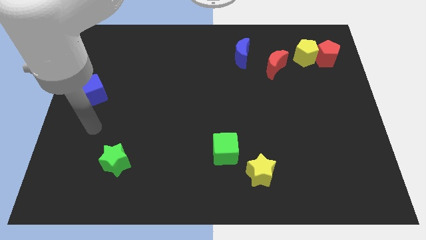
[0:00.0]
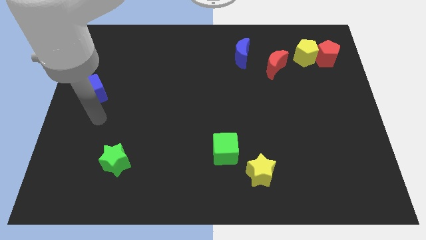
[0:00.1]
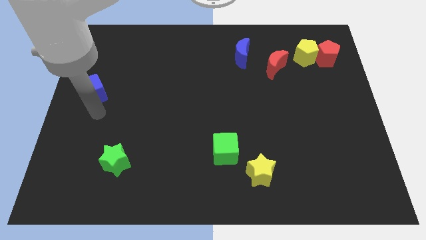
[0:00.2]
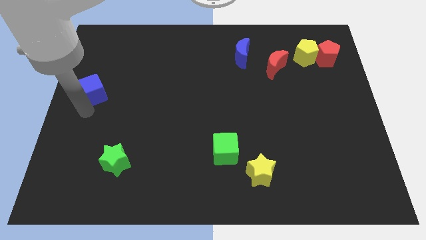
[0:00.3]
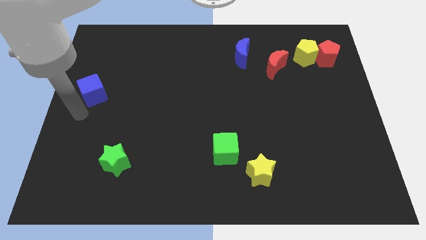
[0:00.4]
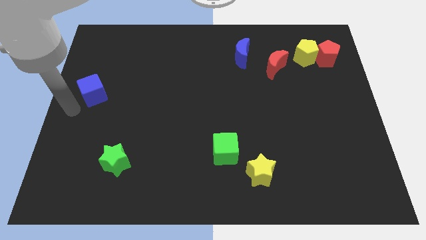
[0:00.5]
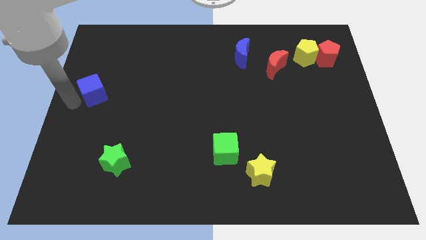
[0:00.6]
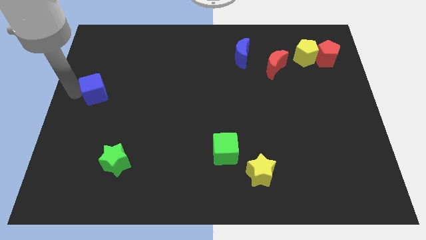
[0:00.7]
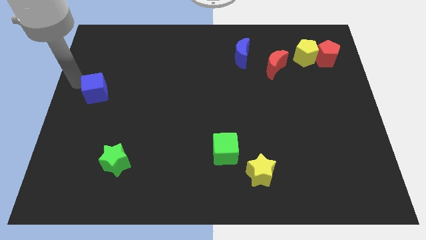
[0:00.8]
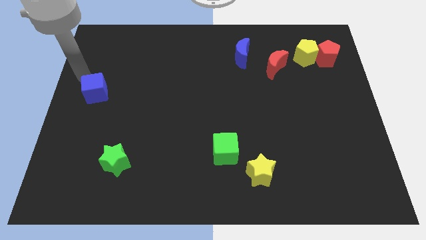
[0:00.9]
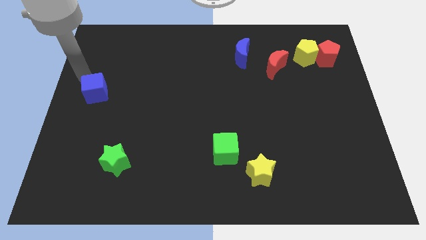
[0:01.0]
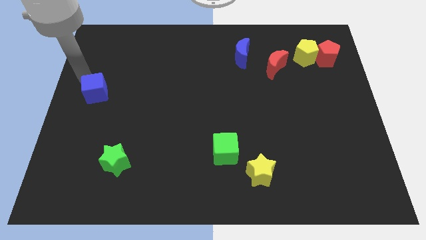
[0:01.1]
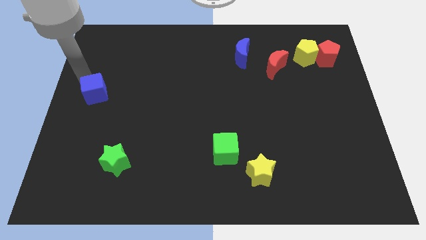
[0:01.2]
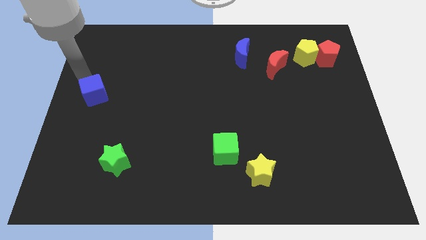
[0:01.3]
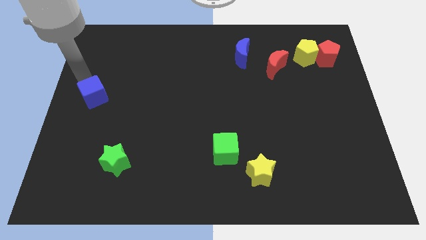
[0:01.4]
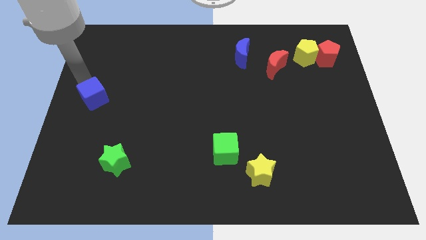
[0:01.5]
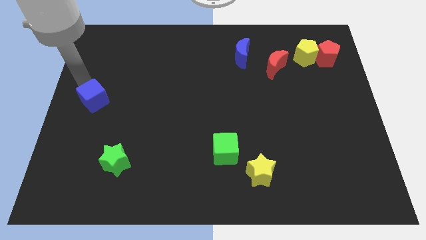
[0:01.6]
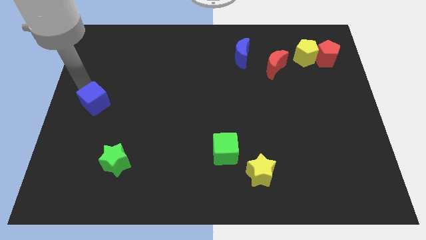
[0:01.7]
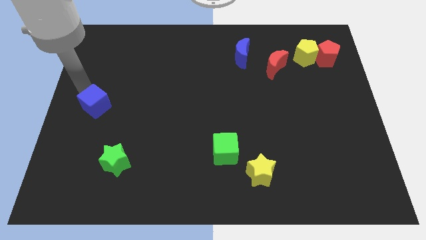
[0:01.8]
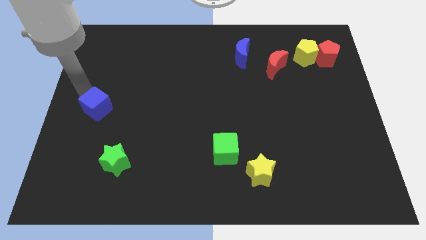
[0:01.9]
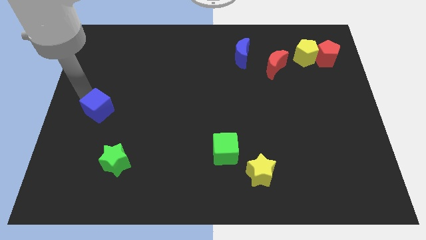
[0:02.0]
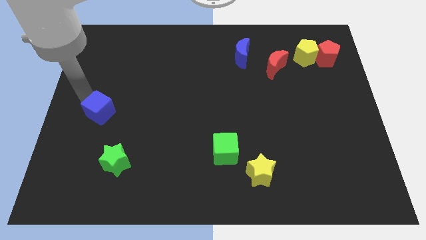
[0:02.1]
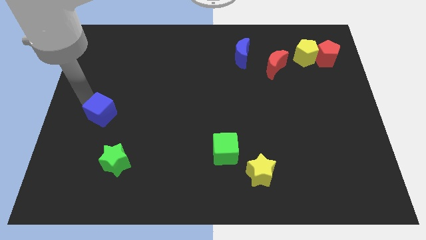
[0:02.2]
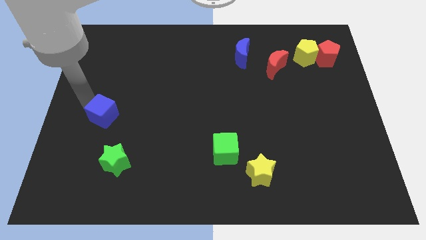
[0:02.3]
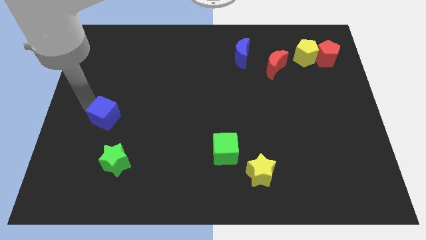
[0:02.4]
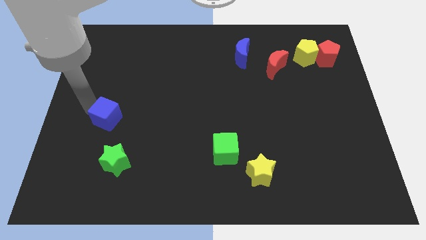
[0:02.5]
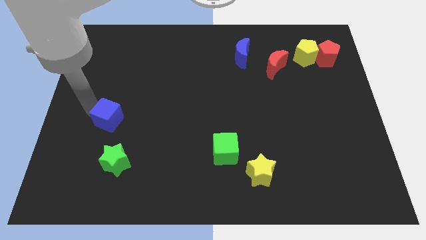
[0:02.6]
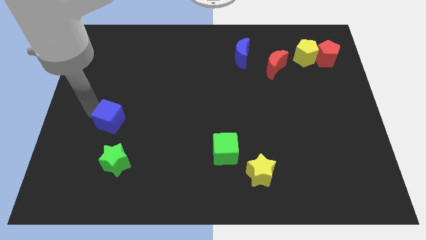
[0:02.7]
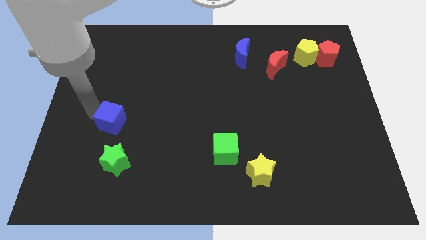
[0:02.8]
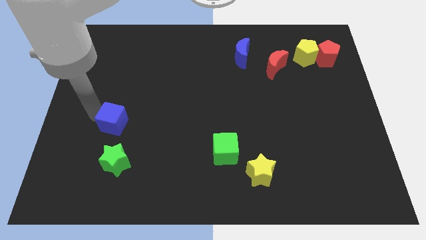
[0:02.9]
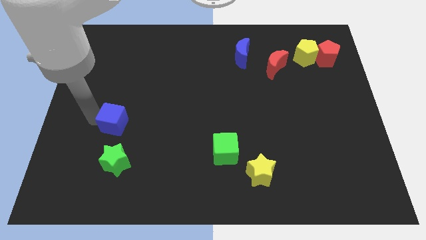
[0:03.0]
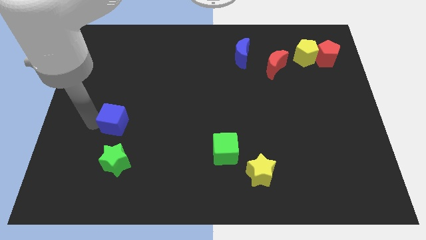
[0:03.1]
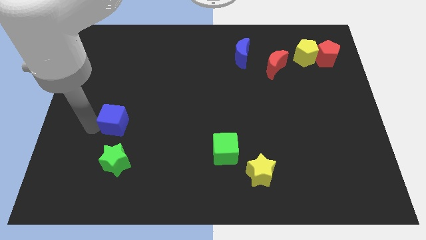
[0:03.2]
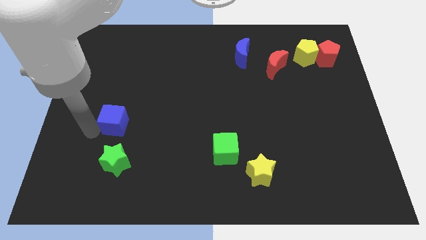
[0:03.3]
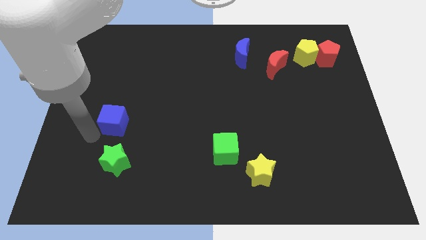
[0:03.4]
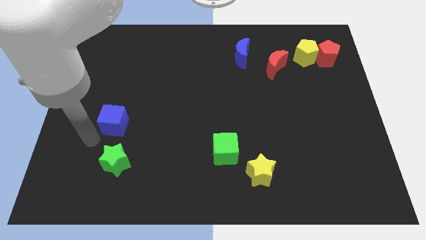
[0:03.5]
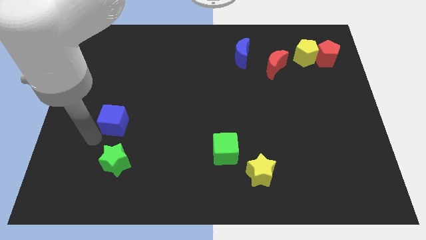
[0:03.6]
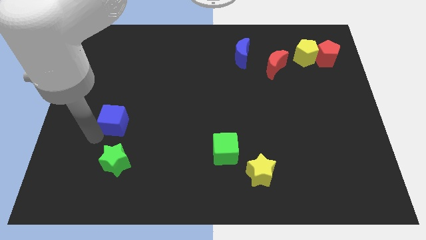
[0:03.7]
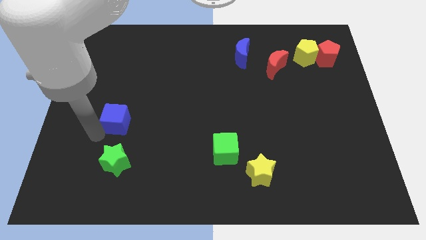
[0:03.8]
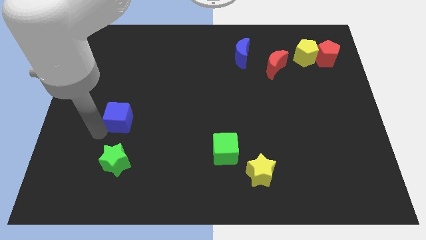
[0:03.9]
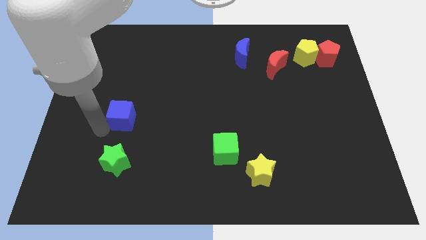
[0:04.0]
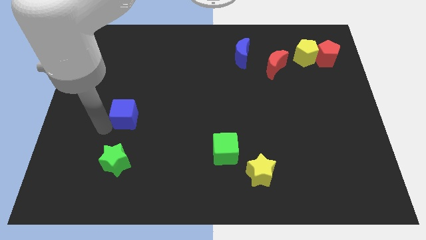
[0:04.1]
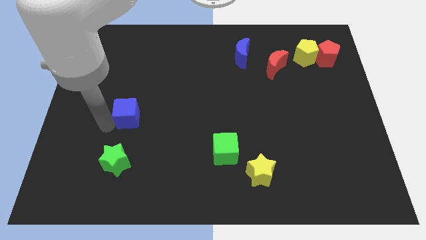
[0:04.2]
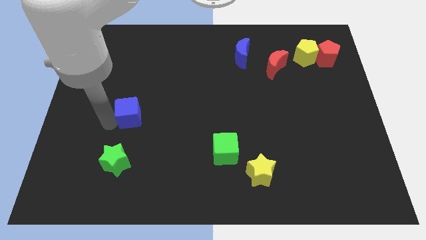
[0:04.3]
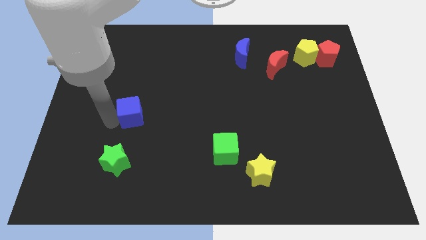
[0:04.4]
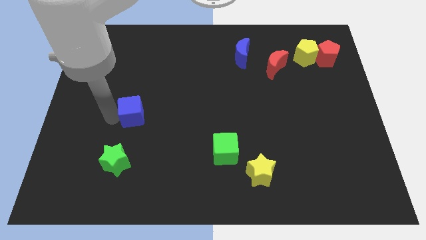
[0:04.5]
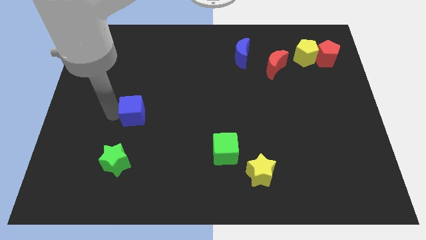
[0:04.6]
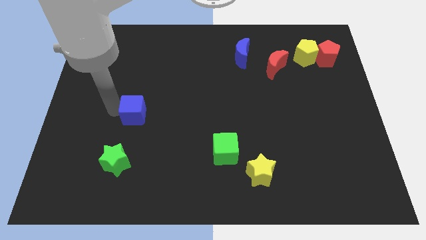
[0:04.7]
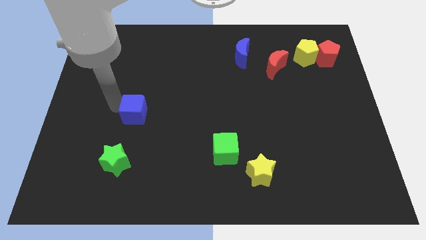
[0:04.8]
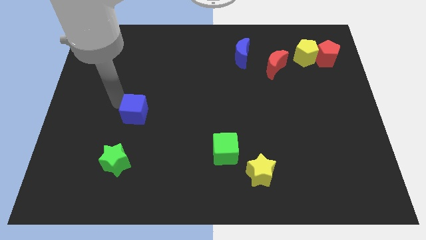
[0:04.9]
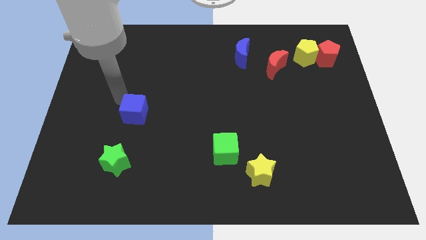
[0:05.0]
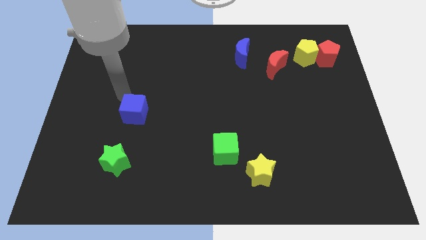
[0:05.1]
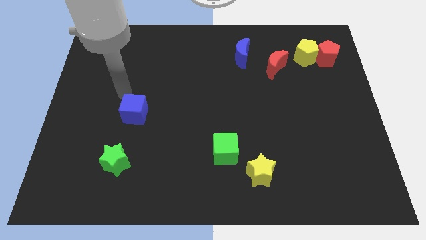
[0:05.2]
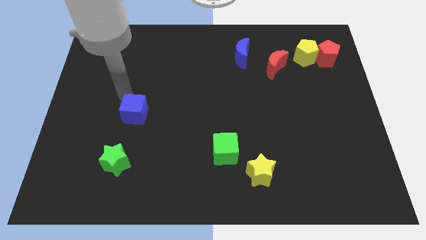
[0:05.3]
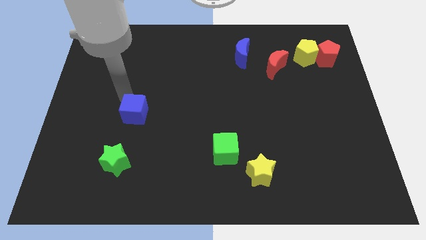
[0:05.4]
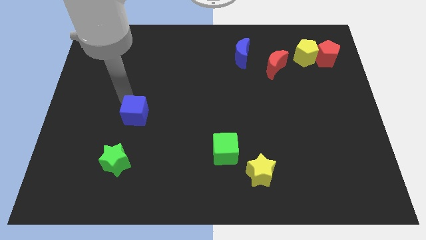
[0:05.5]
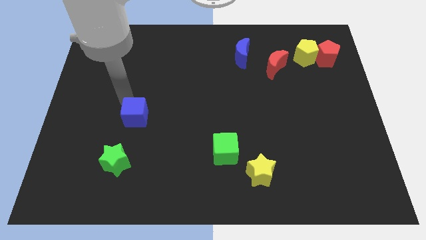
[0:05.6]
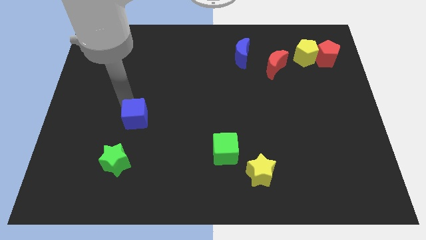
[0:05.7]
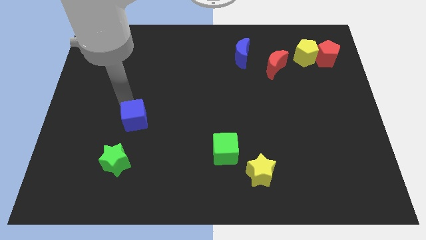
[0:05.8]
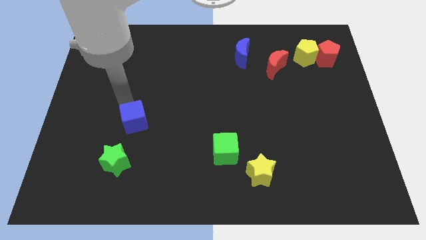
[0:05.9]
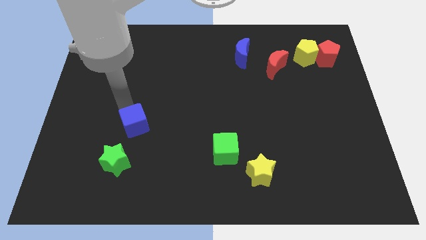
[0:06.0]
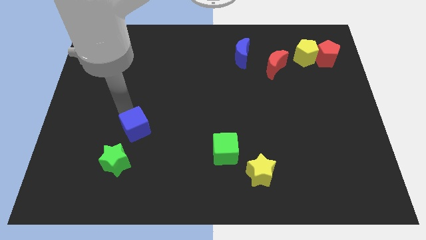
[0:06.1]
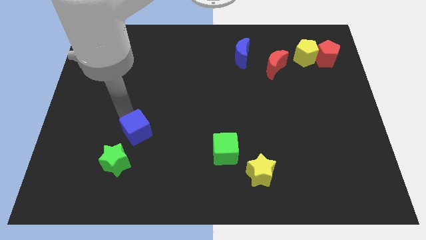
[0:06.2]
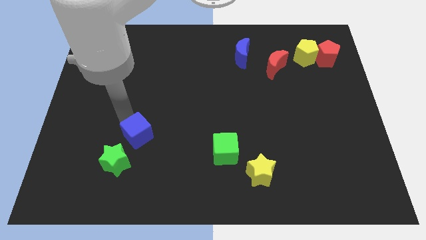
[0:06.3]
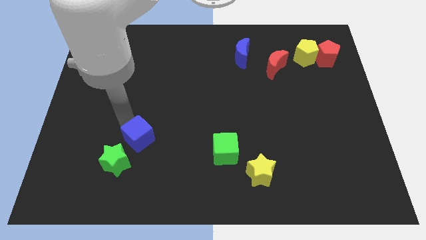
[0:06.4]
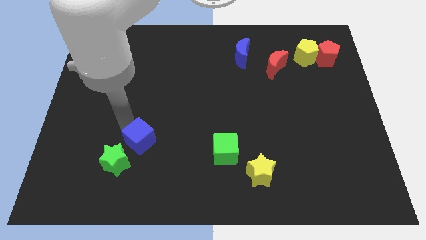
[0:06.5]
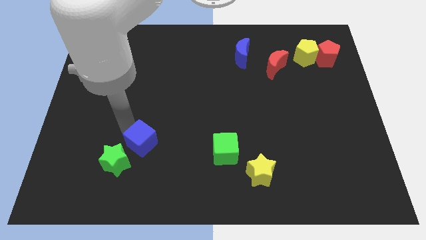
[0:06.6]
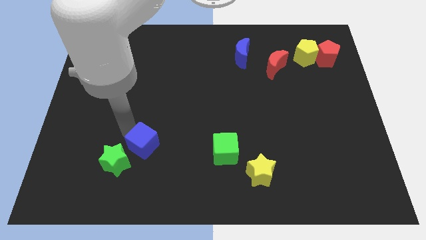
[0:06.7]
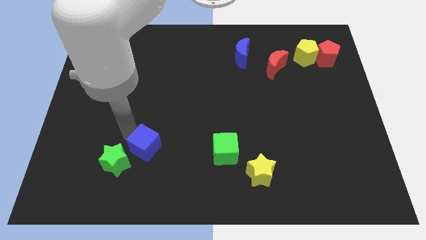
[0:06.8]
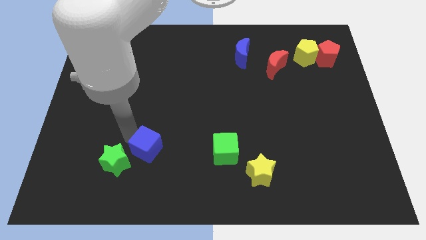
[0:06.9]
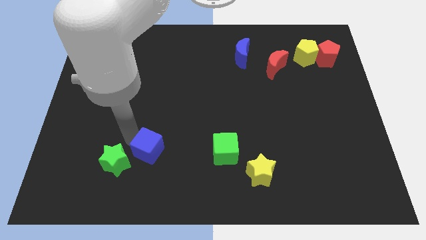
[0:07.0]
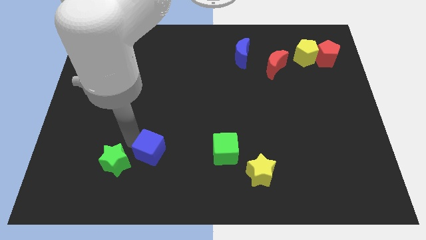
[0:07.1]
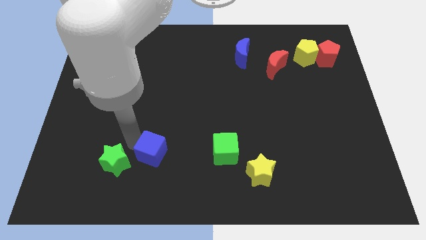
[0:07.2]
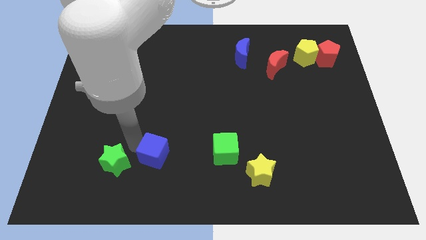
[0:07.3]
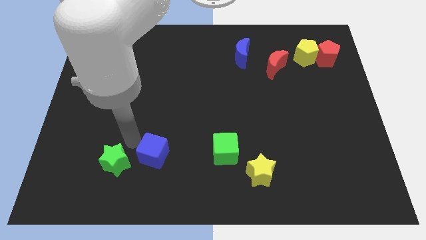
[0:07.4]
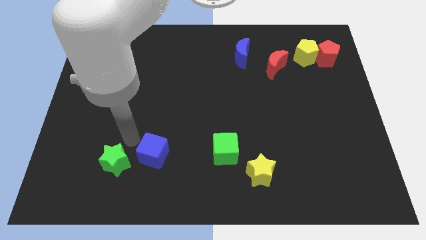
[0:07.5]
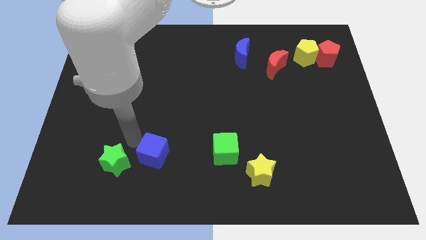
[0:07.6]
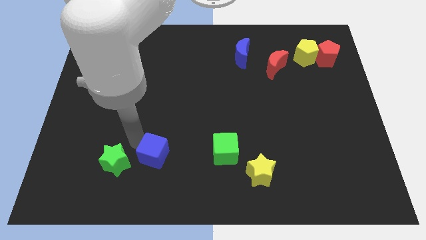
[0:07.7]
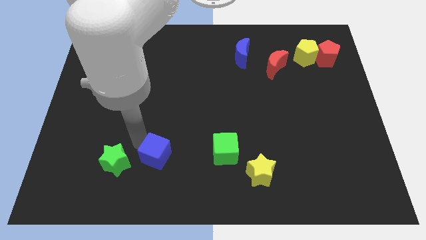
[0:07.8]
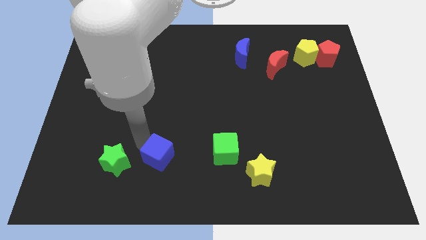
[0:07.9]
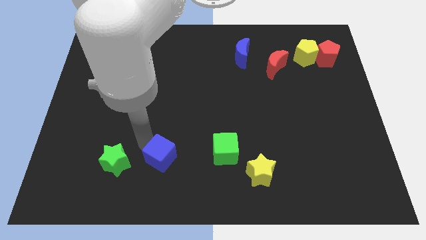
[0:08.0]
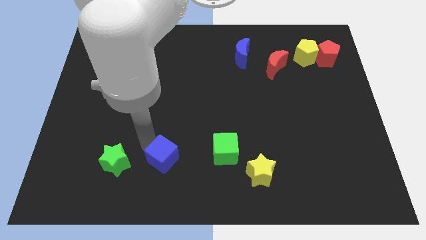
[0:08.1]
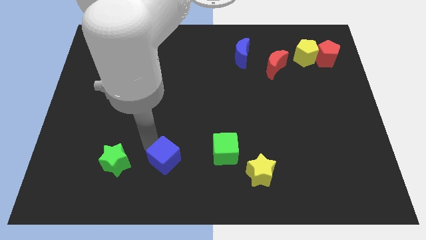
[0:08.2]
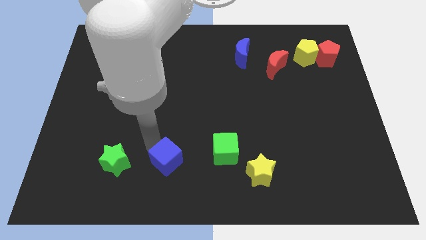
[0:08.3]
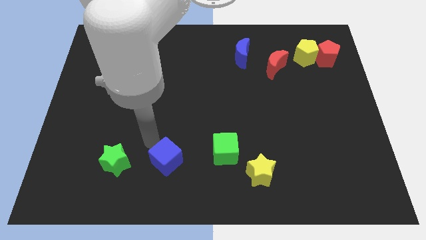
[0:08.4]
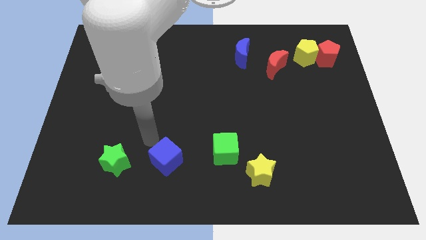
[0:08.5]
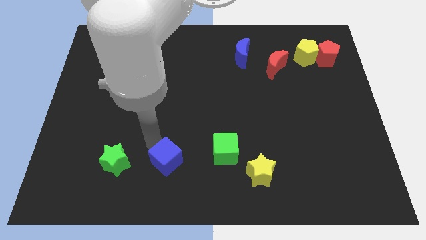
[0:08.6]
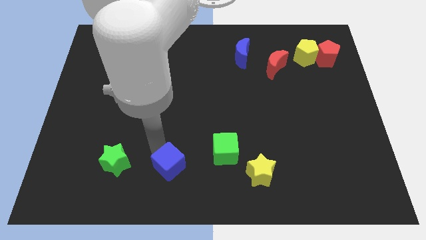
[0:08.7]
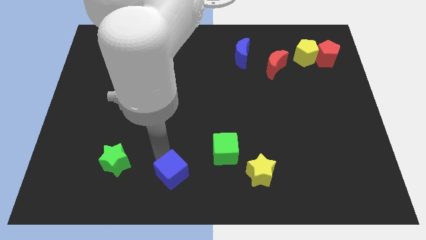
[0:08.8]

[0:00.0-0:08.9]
move the blue cube to the bottom side
